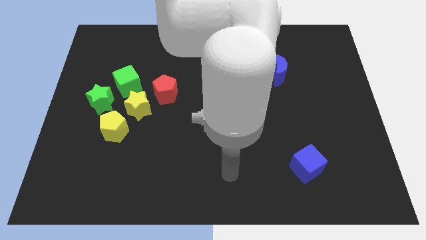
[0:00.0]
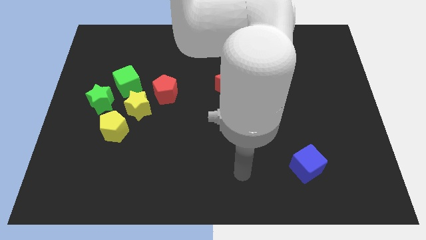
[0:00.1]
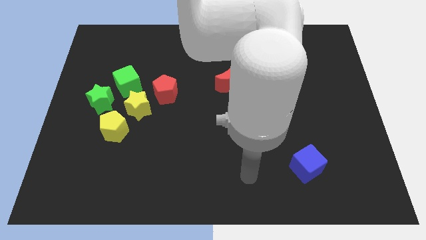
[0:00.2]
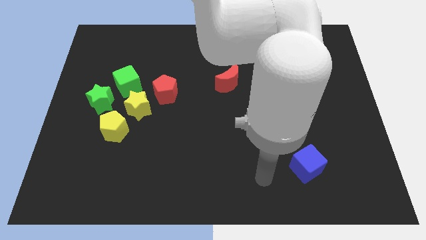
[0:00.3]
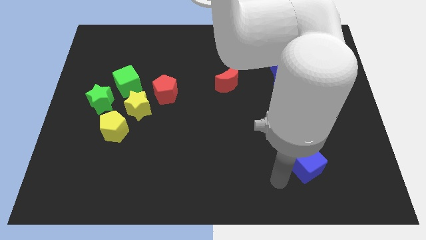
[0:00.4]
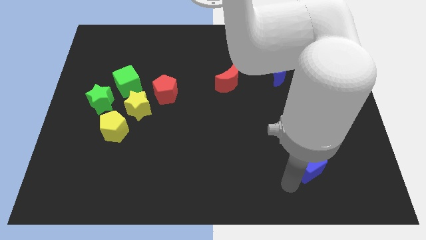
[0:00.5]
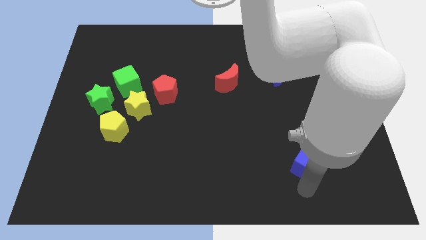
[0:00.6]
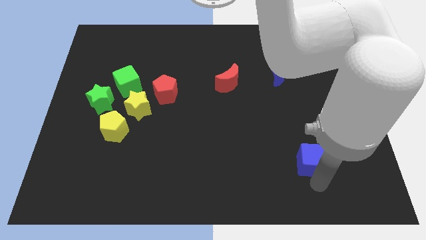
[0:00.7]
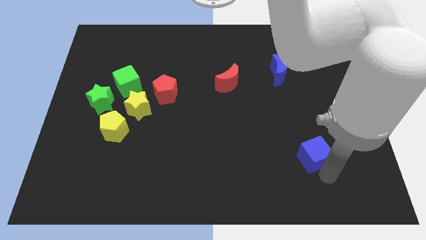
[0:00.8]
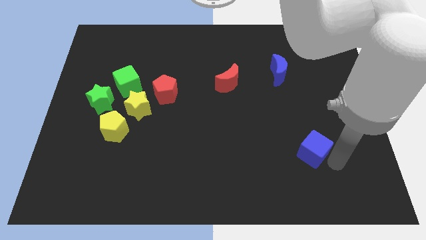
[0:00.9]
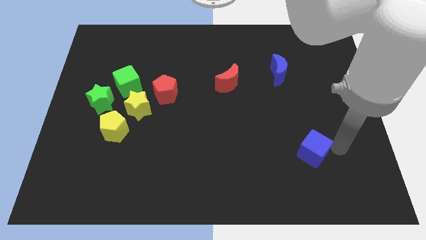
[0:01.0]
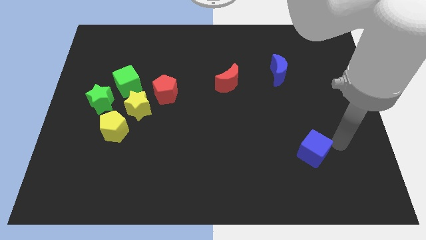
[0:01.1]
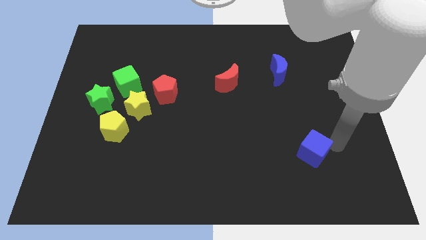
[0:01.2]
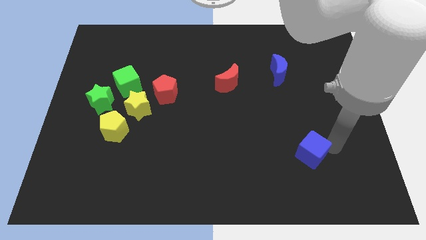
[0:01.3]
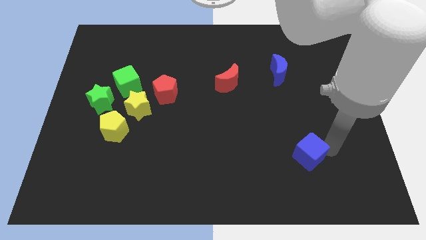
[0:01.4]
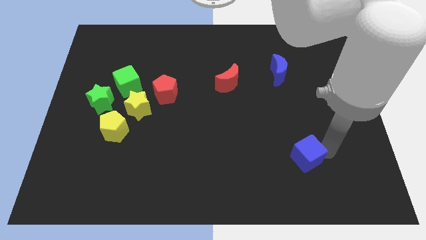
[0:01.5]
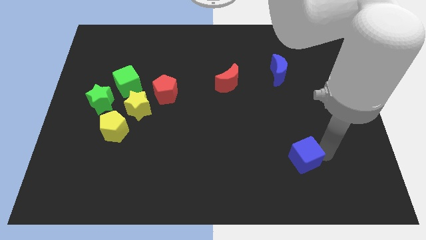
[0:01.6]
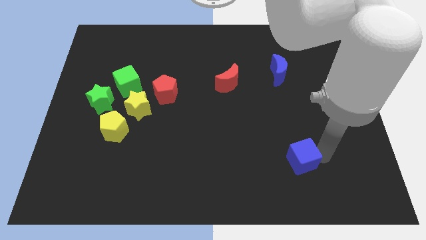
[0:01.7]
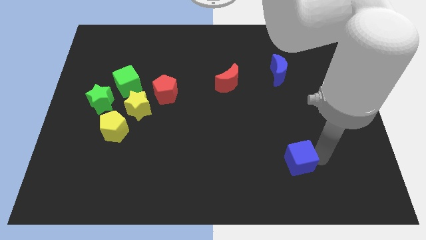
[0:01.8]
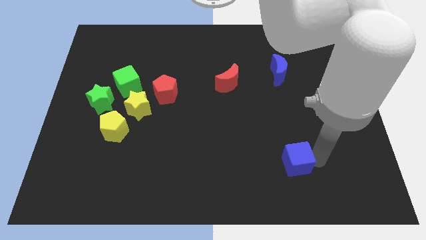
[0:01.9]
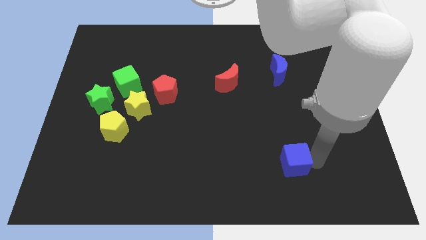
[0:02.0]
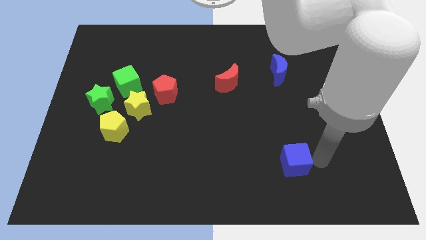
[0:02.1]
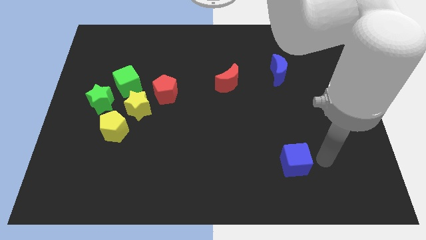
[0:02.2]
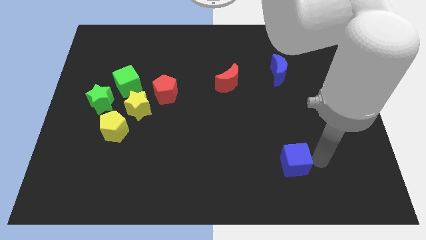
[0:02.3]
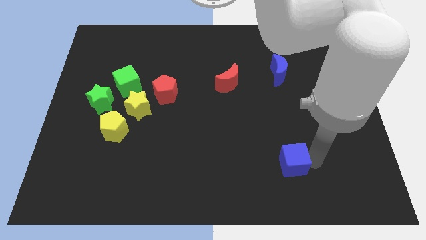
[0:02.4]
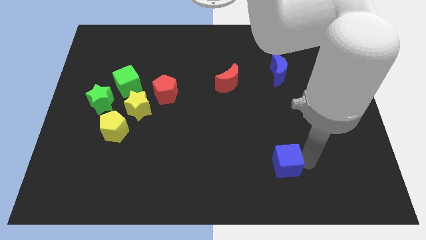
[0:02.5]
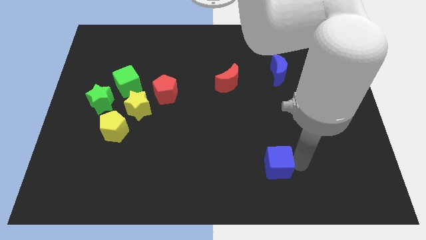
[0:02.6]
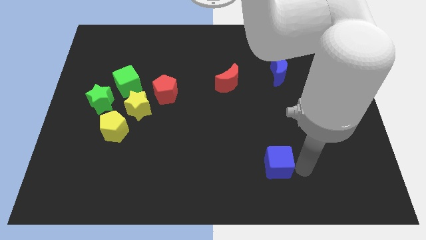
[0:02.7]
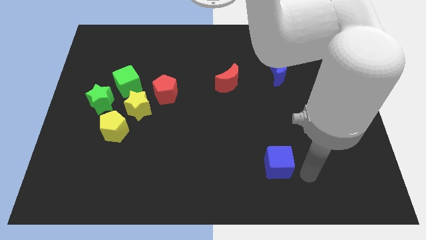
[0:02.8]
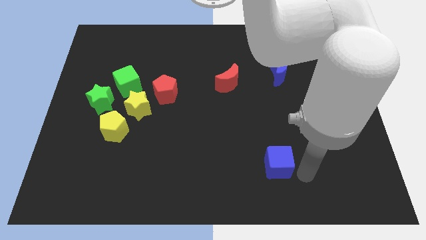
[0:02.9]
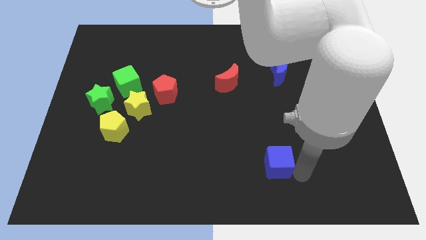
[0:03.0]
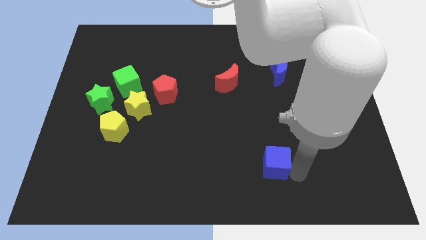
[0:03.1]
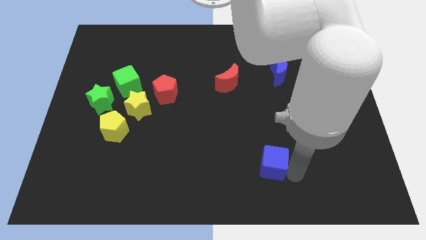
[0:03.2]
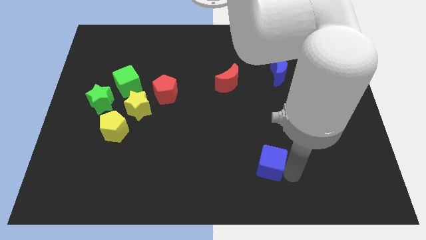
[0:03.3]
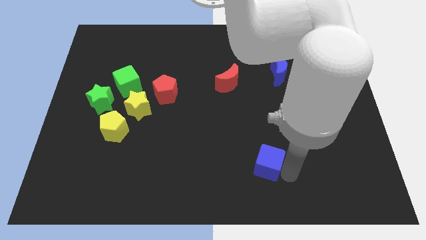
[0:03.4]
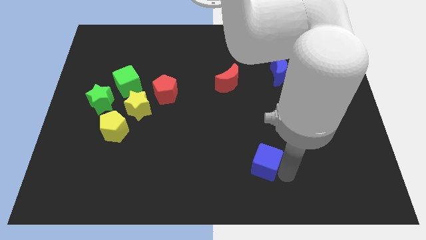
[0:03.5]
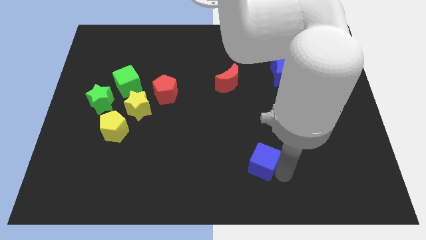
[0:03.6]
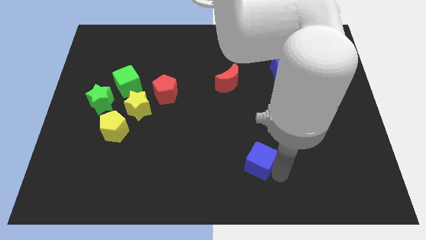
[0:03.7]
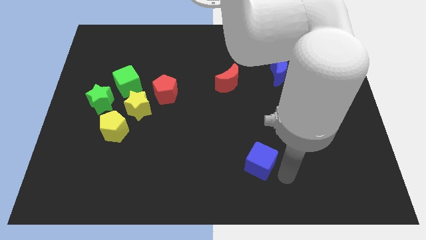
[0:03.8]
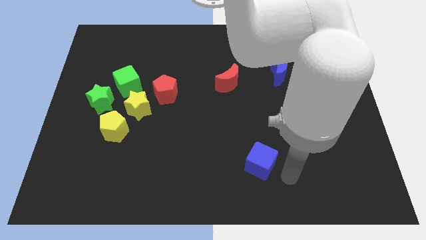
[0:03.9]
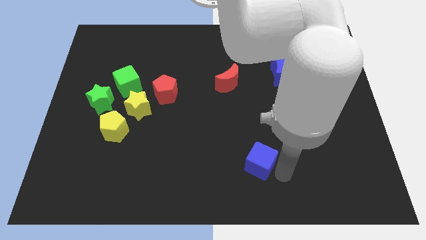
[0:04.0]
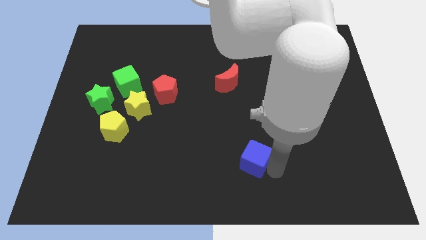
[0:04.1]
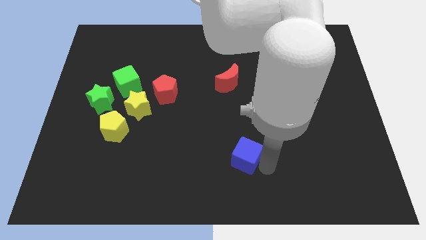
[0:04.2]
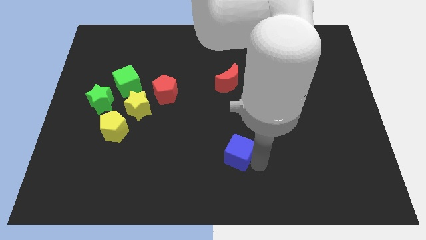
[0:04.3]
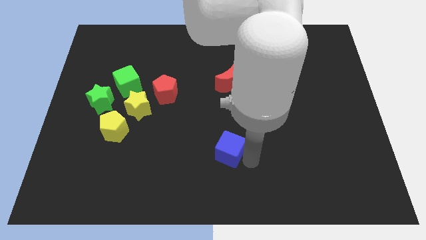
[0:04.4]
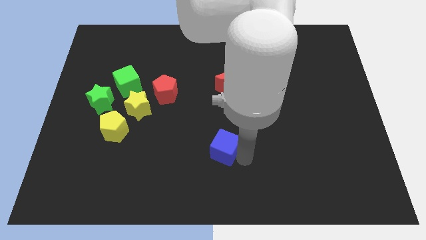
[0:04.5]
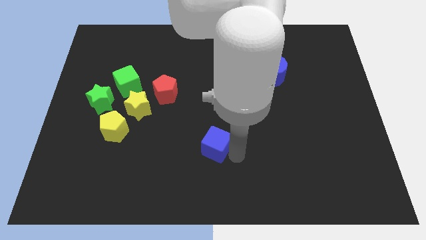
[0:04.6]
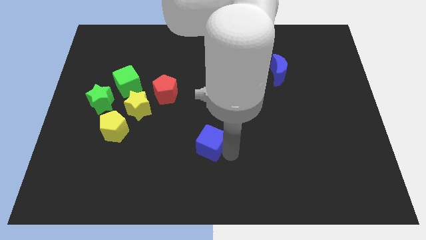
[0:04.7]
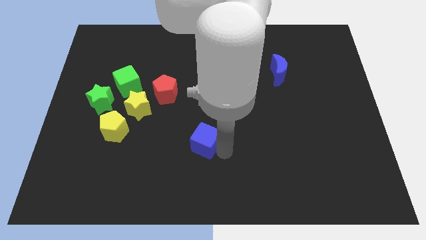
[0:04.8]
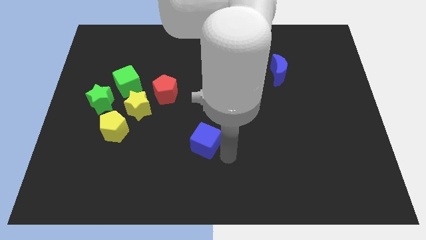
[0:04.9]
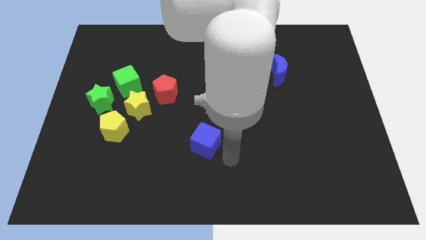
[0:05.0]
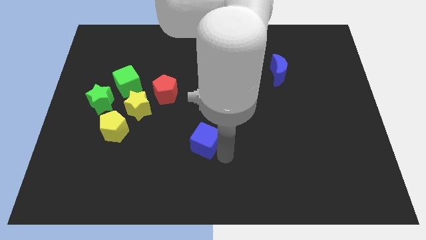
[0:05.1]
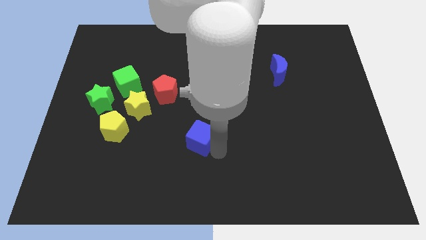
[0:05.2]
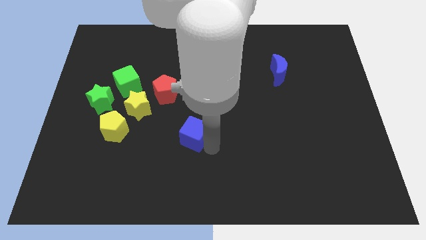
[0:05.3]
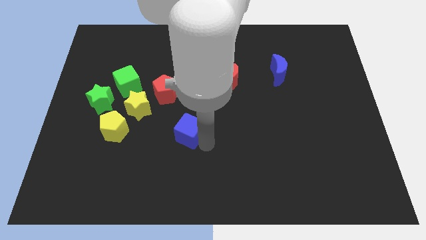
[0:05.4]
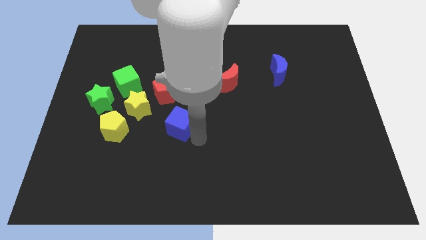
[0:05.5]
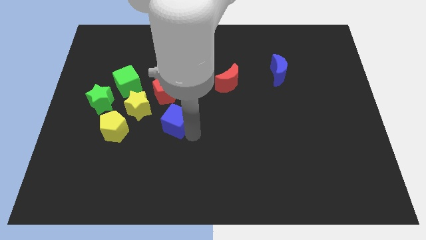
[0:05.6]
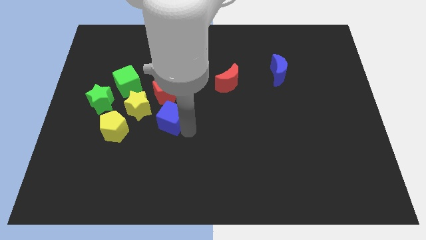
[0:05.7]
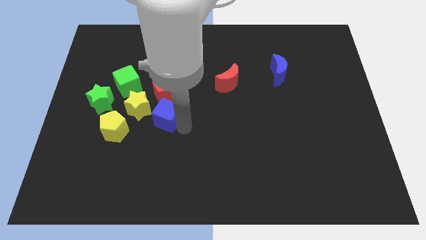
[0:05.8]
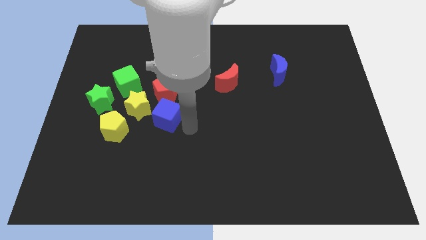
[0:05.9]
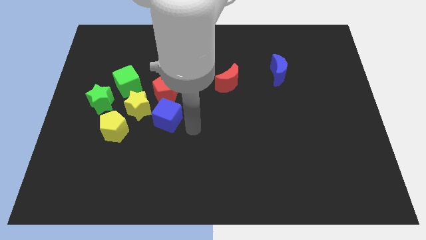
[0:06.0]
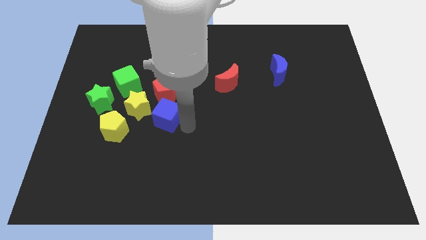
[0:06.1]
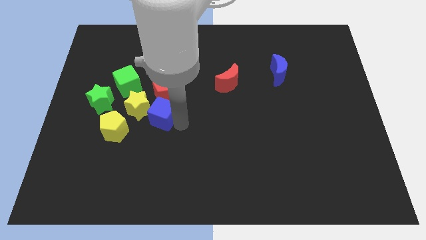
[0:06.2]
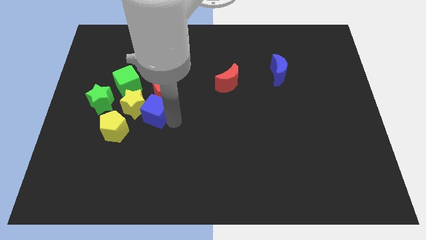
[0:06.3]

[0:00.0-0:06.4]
push the blue cube to the yellow star

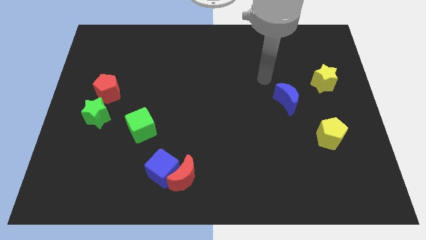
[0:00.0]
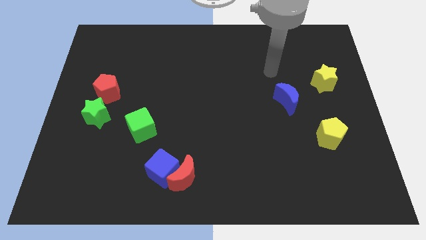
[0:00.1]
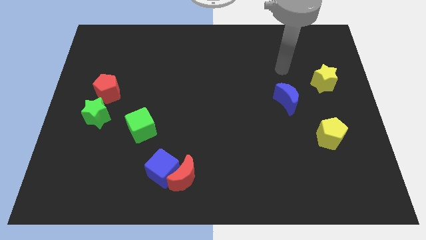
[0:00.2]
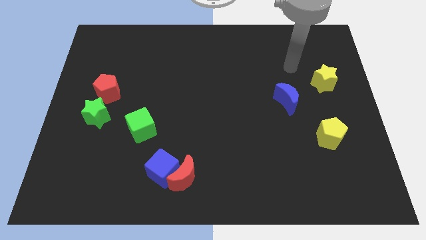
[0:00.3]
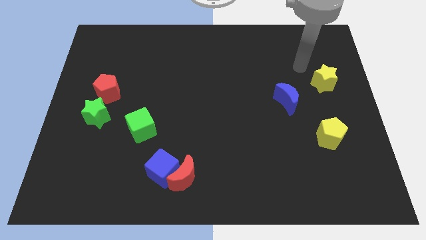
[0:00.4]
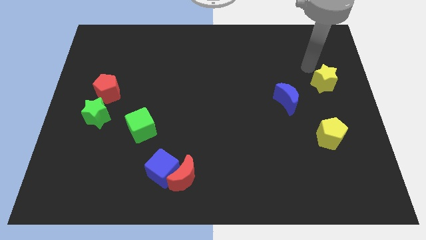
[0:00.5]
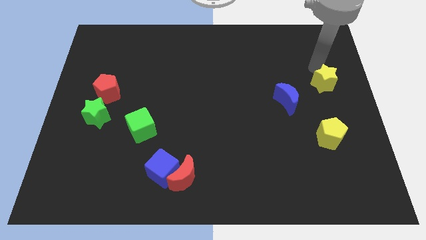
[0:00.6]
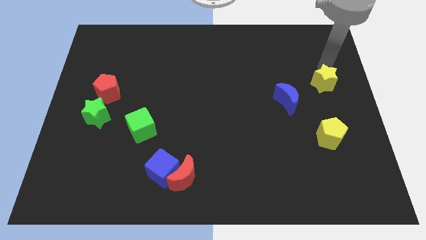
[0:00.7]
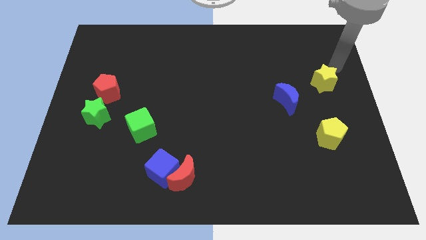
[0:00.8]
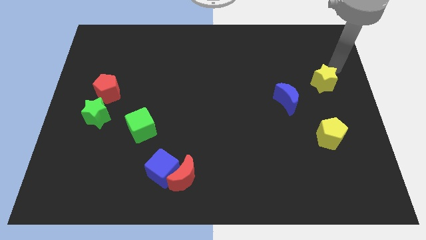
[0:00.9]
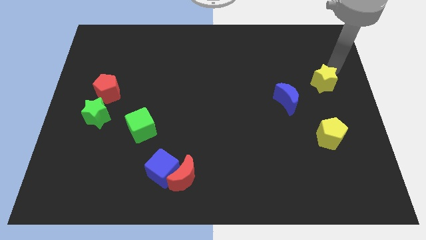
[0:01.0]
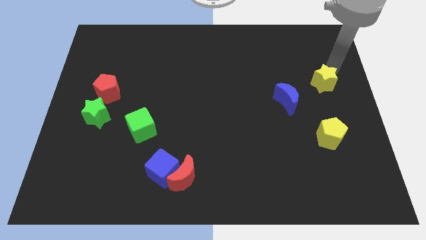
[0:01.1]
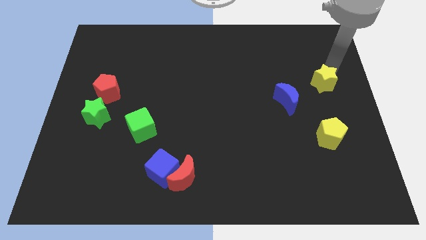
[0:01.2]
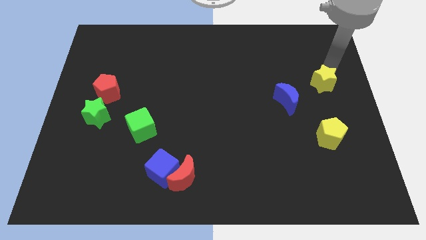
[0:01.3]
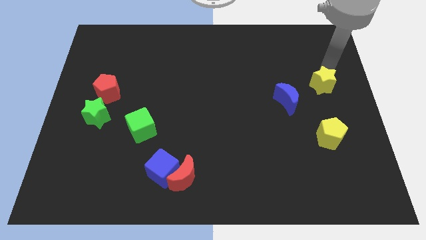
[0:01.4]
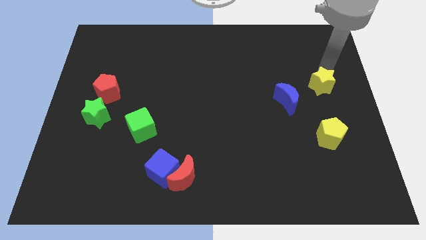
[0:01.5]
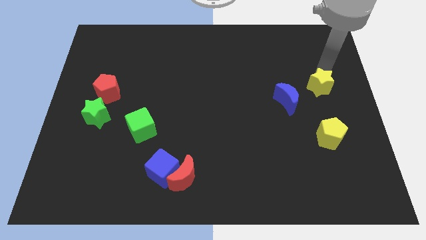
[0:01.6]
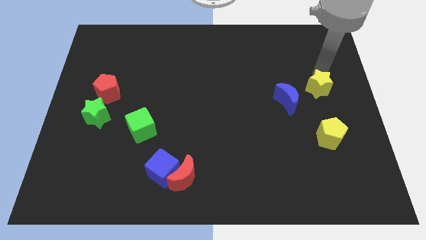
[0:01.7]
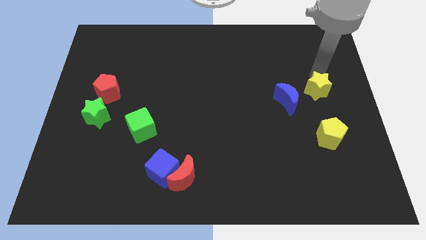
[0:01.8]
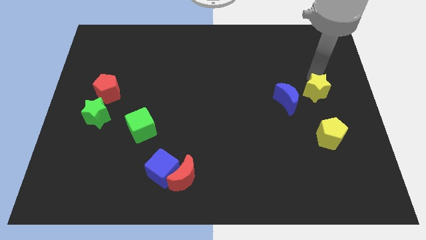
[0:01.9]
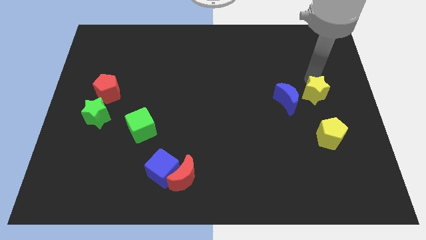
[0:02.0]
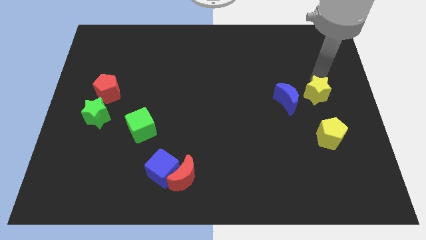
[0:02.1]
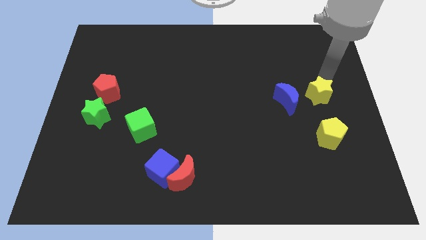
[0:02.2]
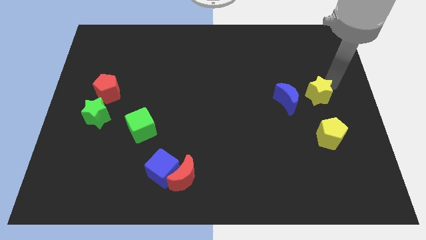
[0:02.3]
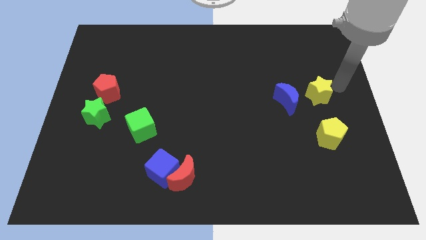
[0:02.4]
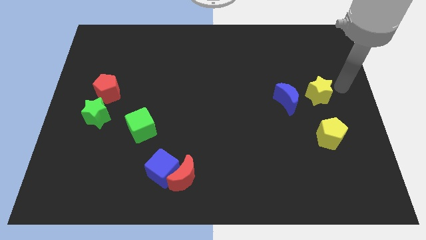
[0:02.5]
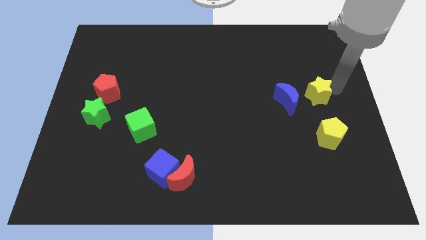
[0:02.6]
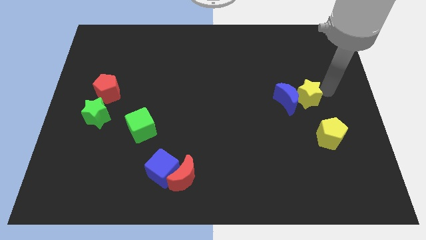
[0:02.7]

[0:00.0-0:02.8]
put the yellow star towards the blue moon
